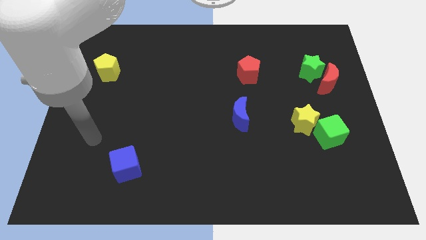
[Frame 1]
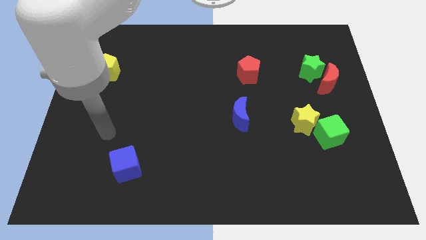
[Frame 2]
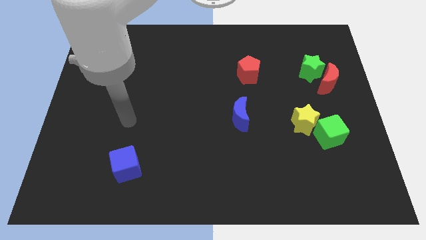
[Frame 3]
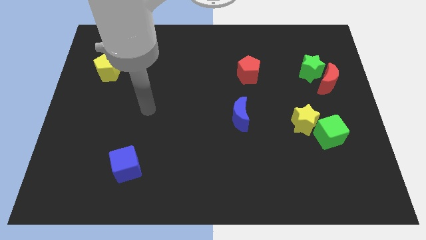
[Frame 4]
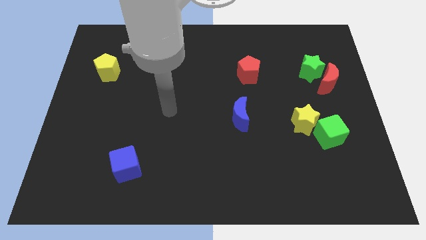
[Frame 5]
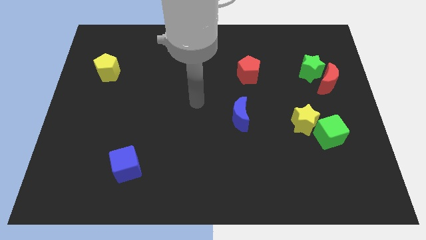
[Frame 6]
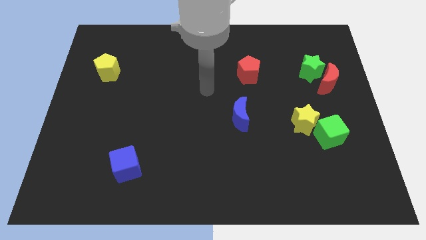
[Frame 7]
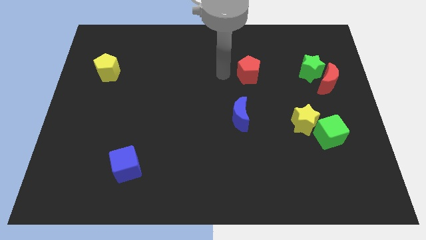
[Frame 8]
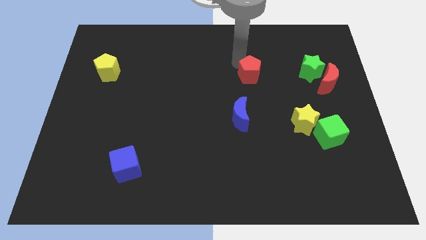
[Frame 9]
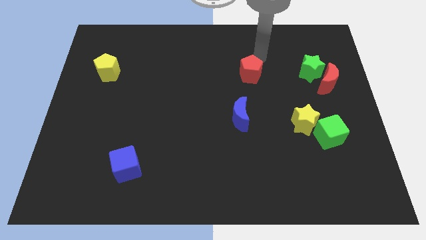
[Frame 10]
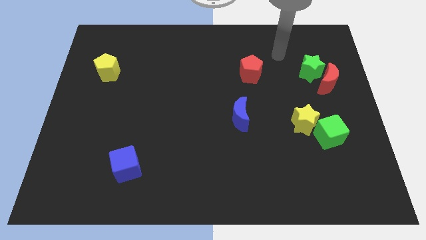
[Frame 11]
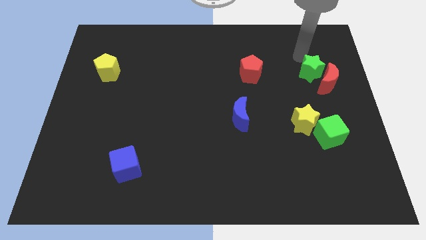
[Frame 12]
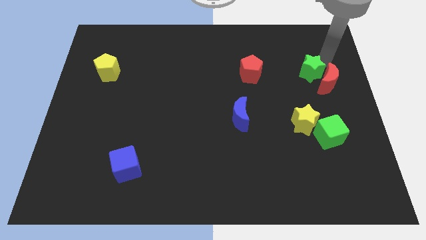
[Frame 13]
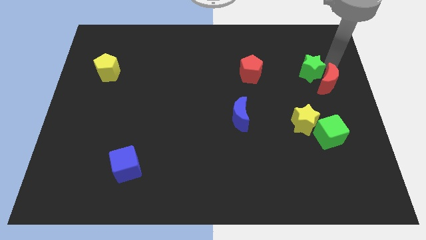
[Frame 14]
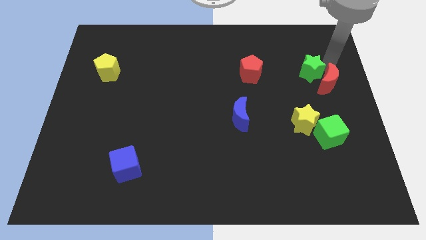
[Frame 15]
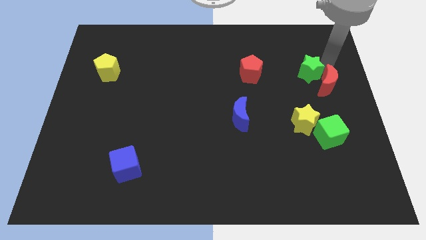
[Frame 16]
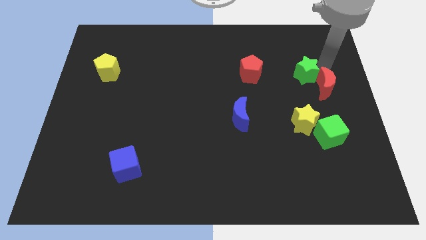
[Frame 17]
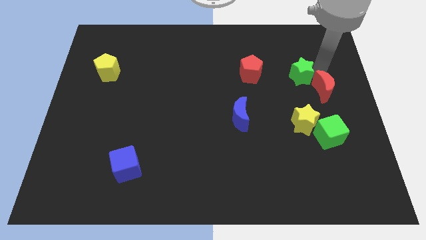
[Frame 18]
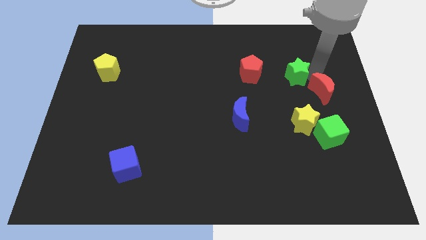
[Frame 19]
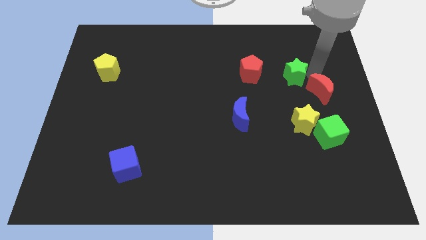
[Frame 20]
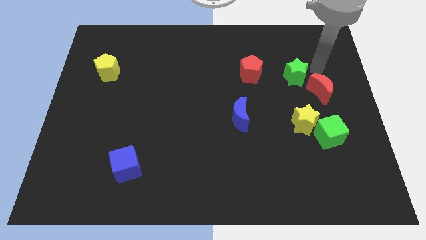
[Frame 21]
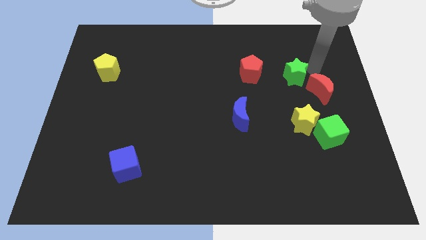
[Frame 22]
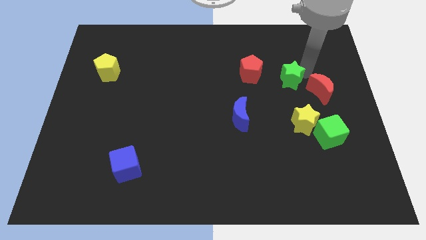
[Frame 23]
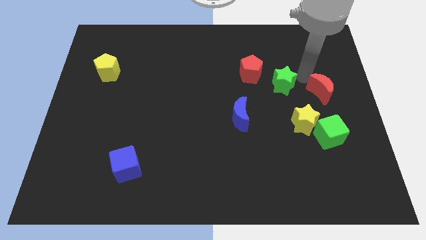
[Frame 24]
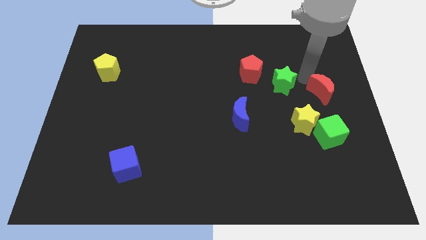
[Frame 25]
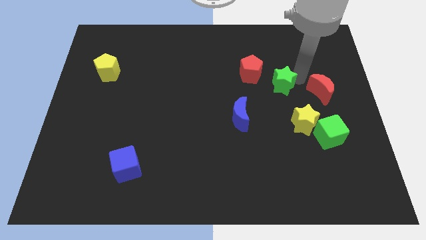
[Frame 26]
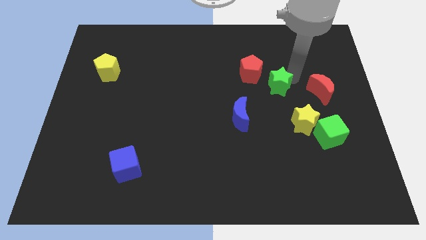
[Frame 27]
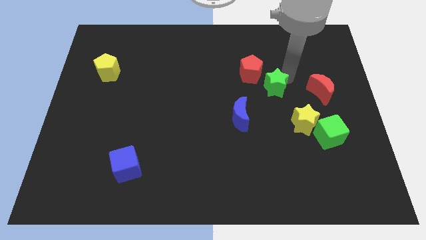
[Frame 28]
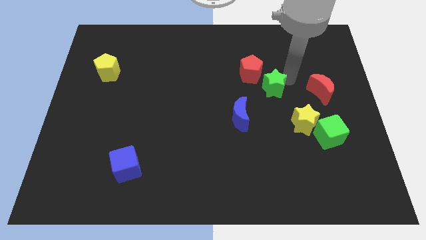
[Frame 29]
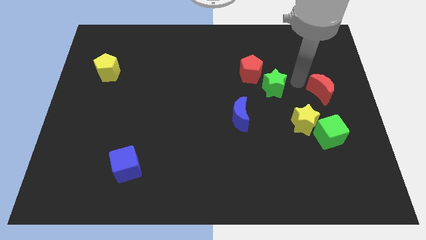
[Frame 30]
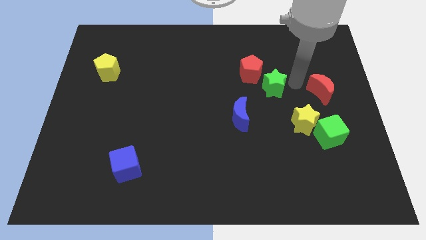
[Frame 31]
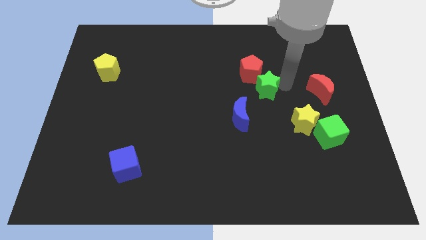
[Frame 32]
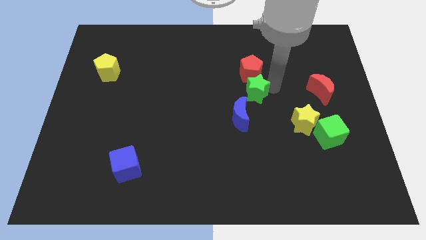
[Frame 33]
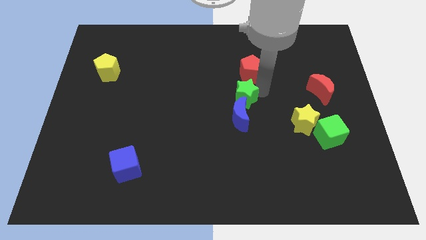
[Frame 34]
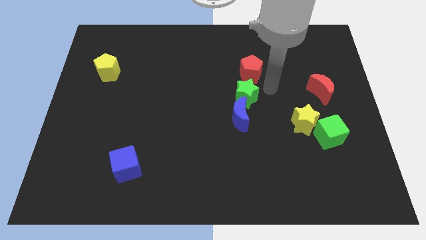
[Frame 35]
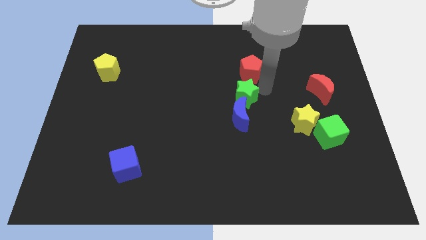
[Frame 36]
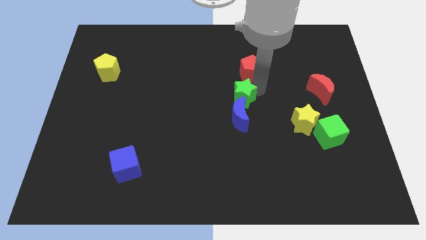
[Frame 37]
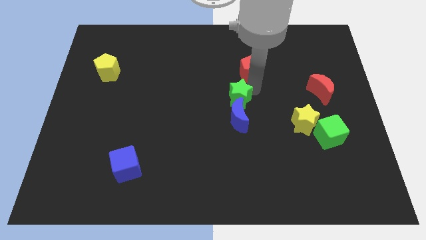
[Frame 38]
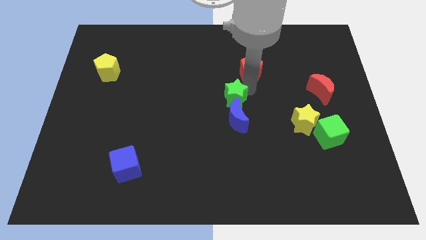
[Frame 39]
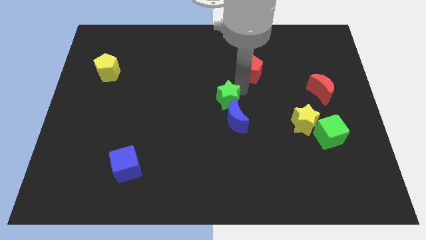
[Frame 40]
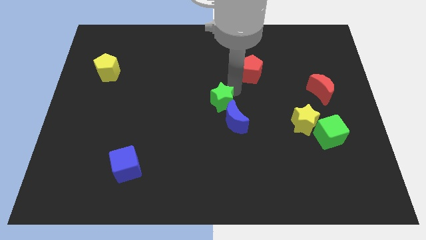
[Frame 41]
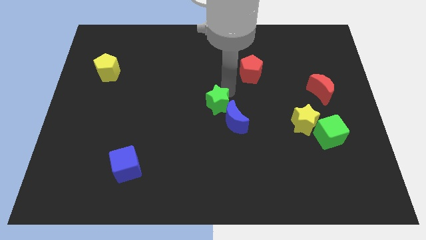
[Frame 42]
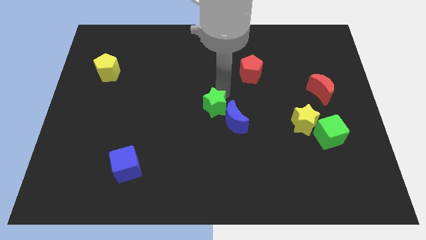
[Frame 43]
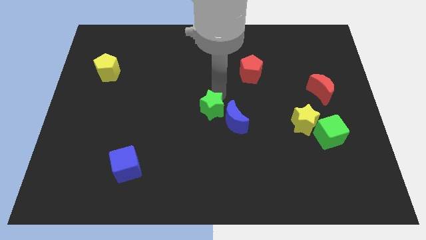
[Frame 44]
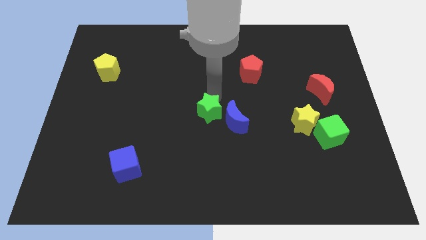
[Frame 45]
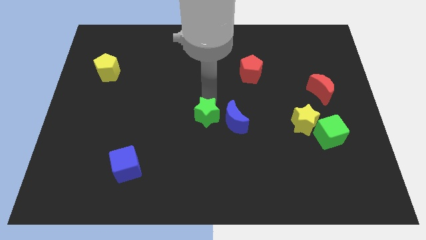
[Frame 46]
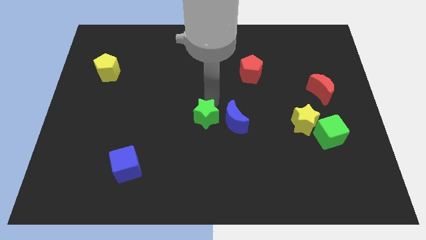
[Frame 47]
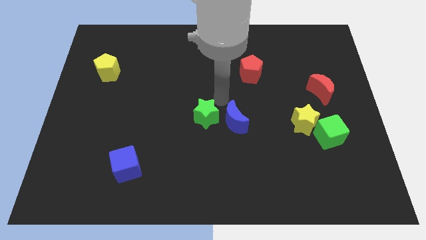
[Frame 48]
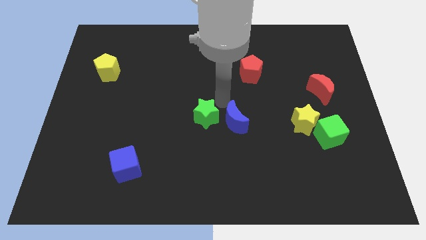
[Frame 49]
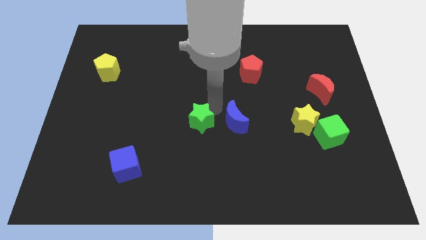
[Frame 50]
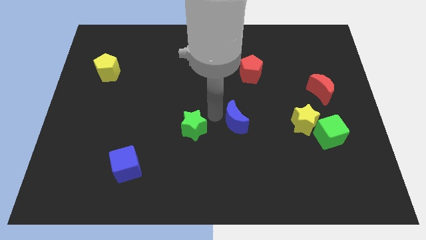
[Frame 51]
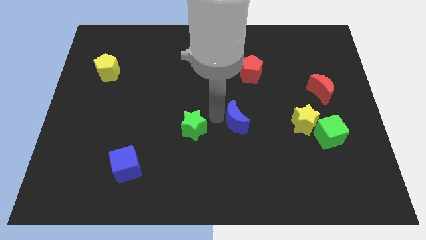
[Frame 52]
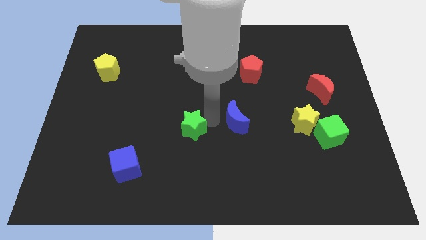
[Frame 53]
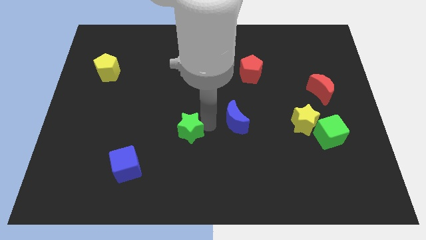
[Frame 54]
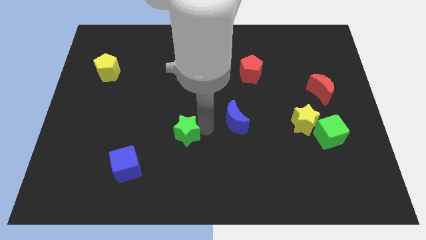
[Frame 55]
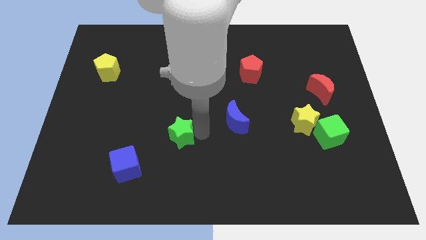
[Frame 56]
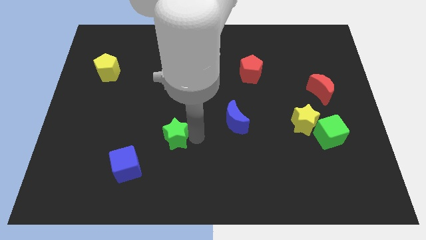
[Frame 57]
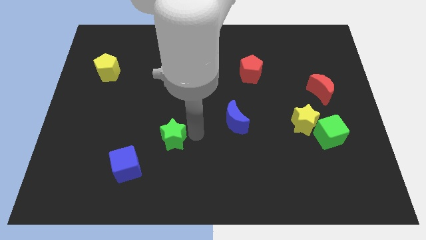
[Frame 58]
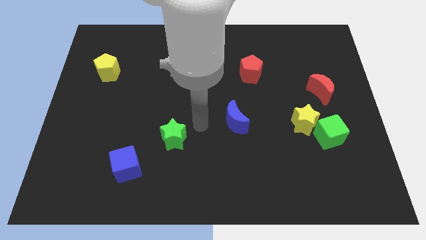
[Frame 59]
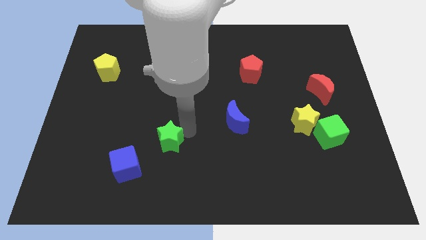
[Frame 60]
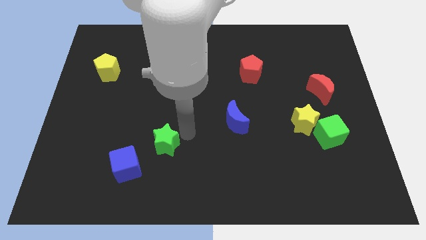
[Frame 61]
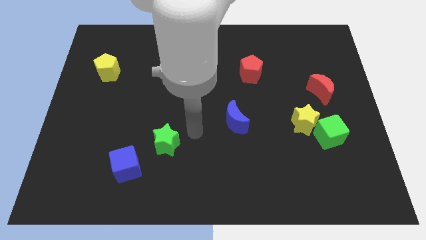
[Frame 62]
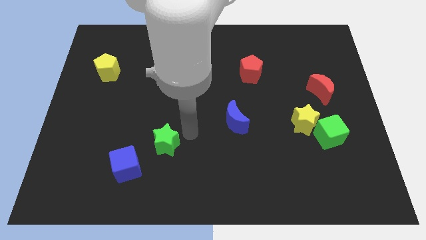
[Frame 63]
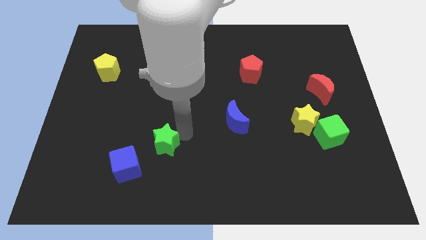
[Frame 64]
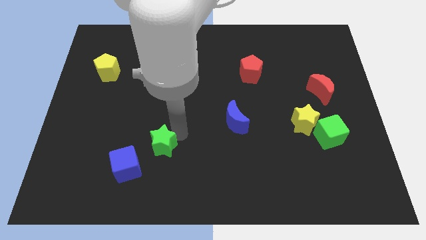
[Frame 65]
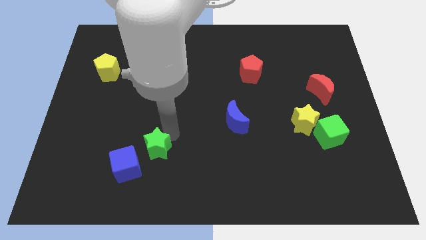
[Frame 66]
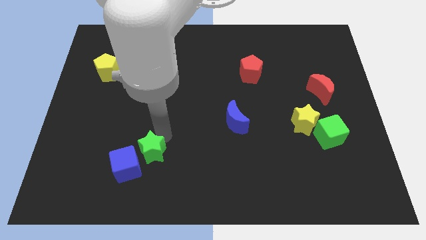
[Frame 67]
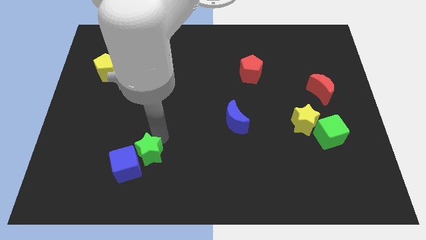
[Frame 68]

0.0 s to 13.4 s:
put the green star next to the blue cube

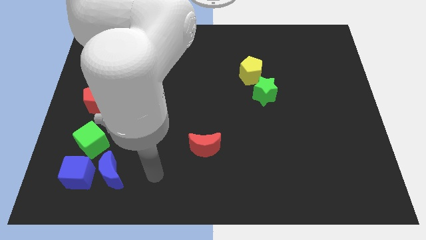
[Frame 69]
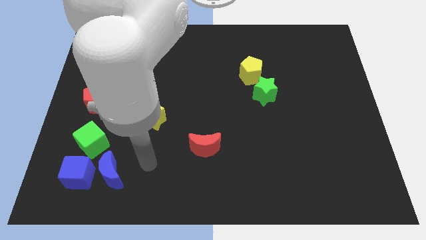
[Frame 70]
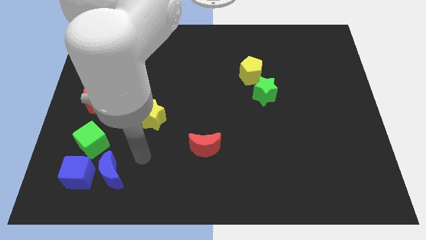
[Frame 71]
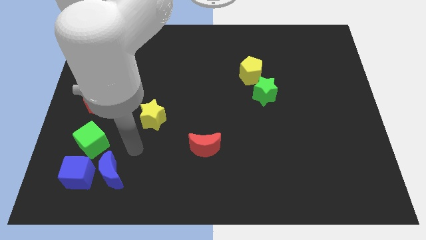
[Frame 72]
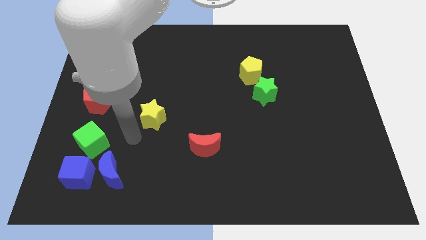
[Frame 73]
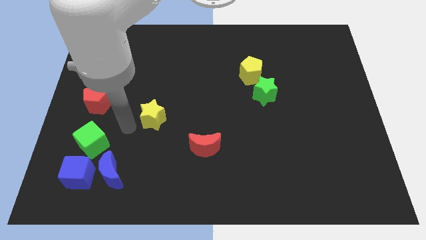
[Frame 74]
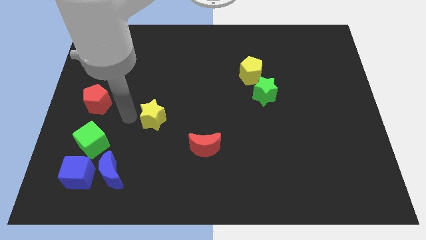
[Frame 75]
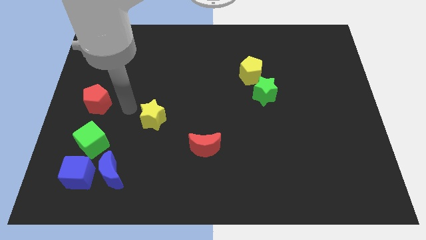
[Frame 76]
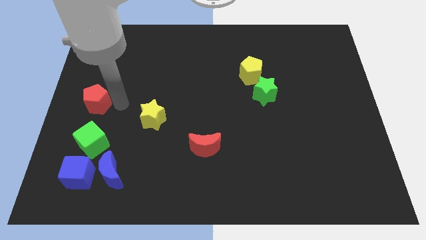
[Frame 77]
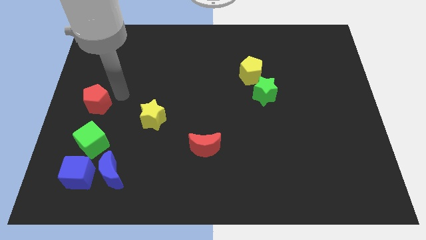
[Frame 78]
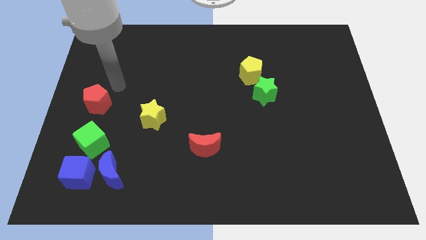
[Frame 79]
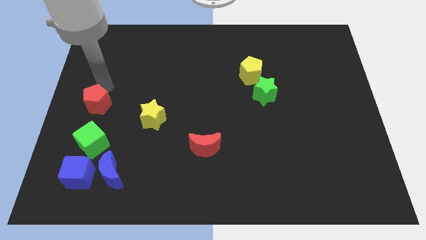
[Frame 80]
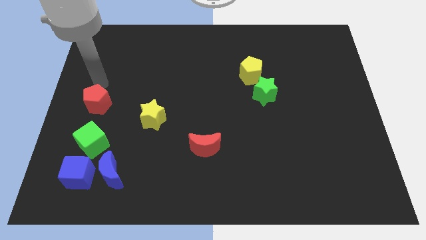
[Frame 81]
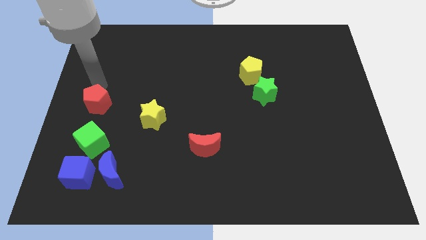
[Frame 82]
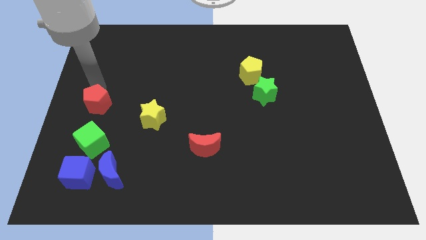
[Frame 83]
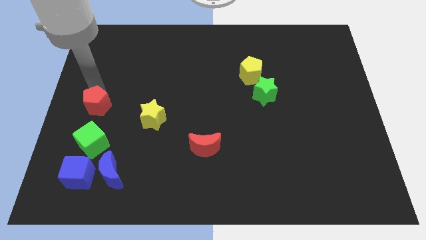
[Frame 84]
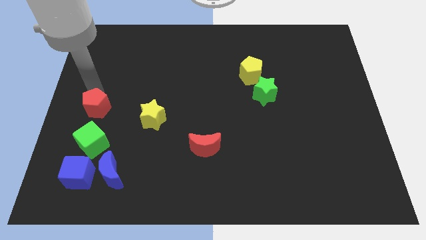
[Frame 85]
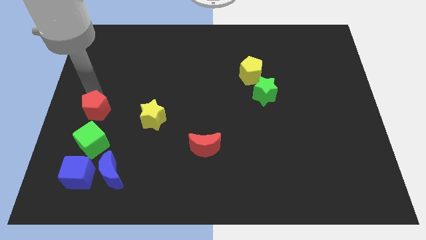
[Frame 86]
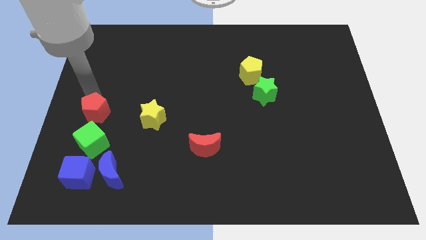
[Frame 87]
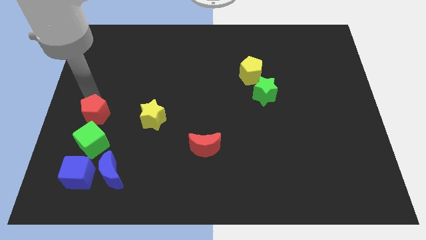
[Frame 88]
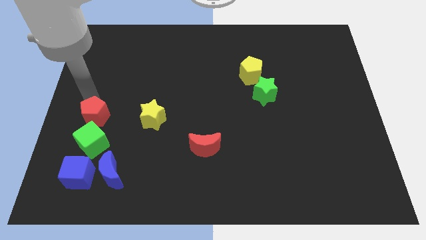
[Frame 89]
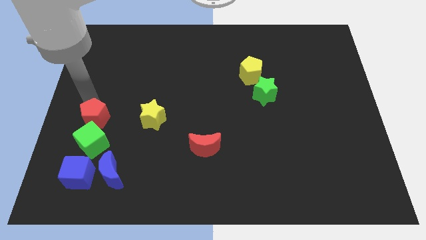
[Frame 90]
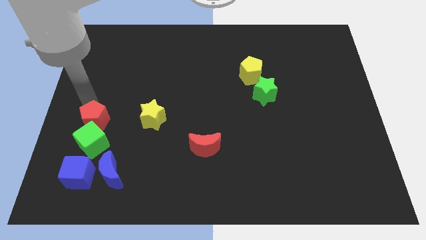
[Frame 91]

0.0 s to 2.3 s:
push the red pentagon close to the green cube
